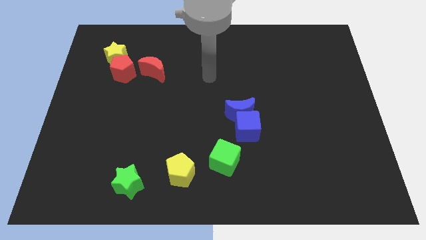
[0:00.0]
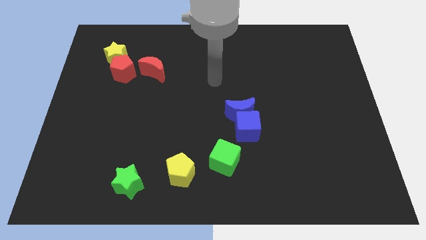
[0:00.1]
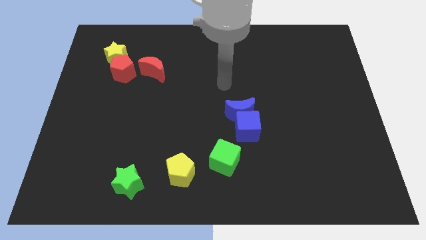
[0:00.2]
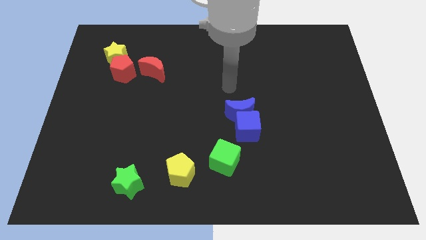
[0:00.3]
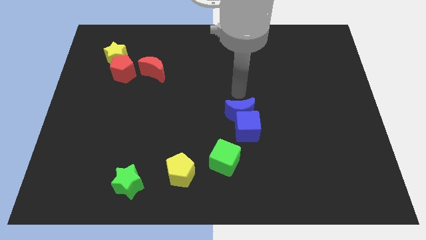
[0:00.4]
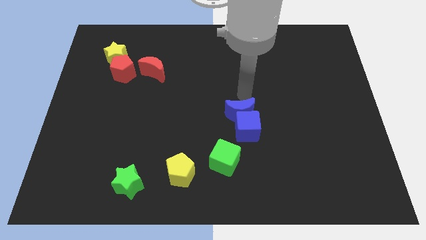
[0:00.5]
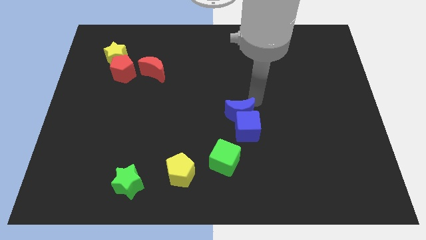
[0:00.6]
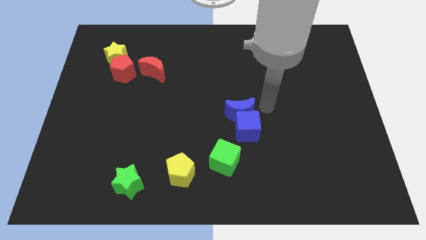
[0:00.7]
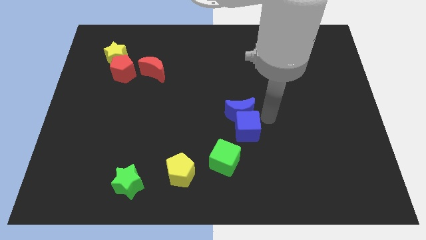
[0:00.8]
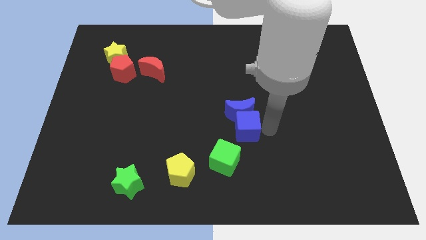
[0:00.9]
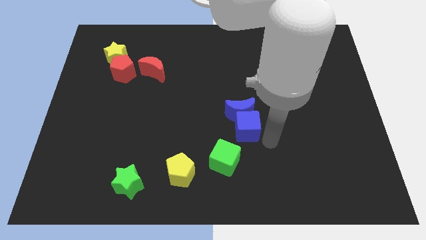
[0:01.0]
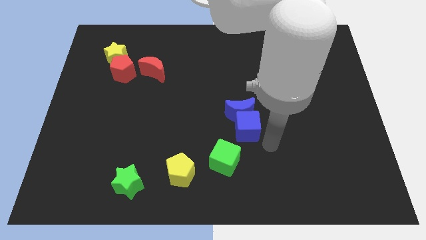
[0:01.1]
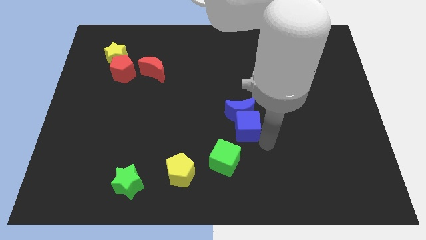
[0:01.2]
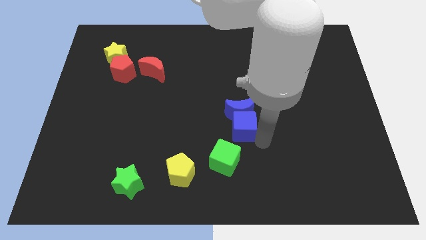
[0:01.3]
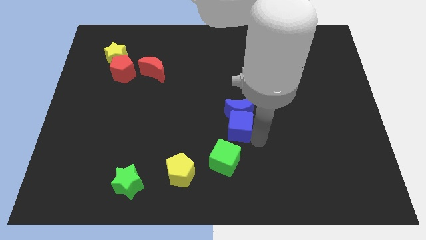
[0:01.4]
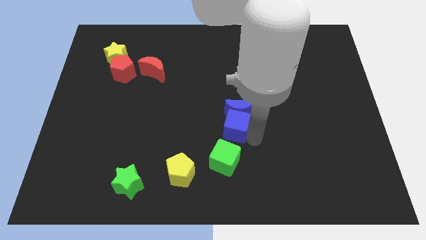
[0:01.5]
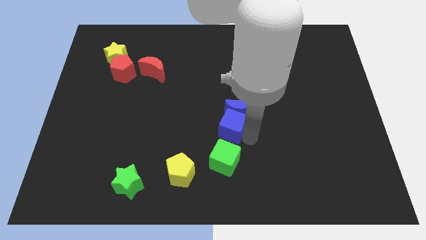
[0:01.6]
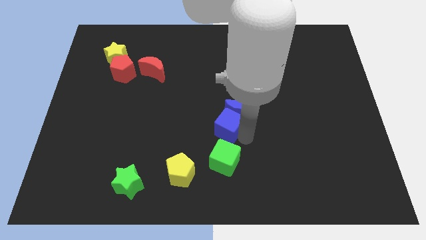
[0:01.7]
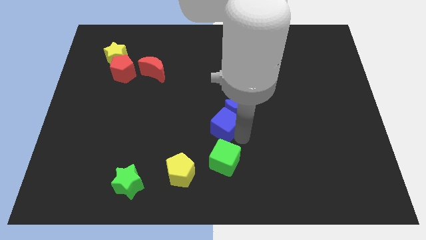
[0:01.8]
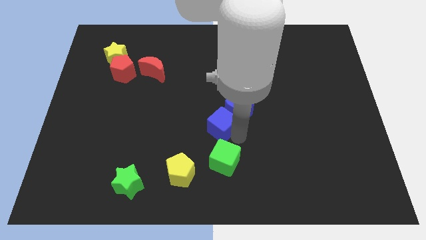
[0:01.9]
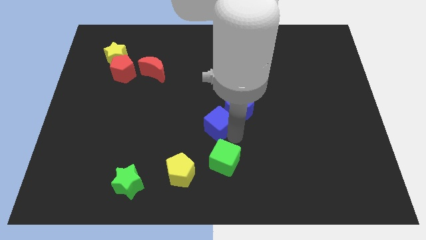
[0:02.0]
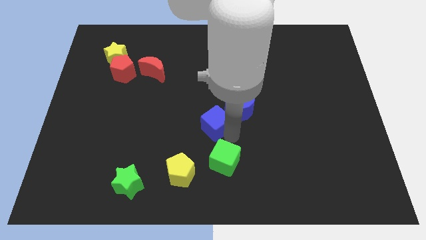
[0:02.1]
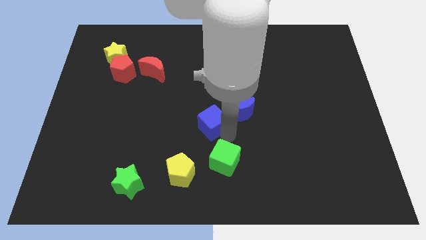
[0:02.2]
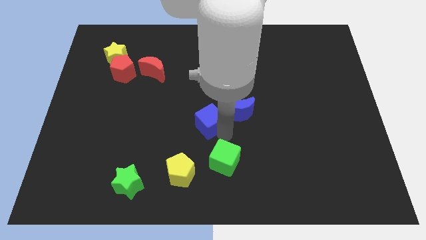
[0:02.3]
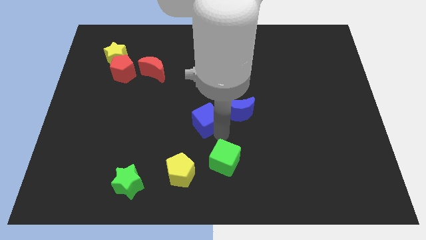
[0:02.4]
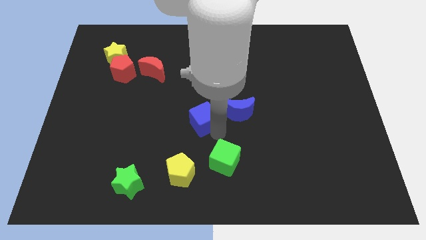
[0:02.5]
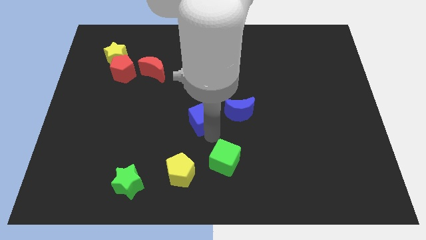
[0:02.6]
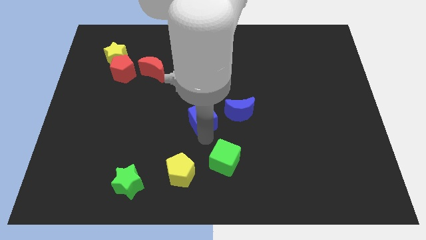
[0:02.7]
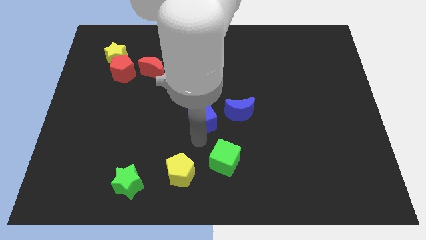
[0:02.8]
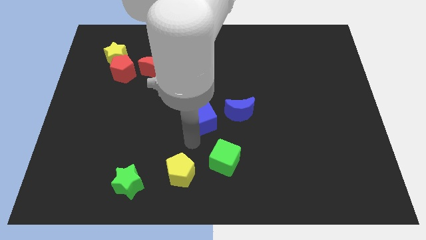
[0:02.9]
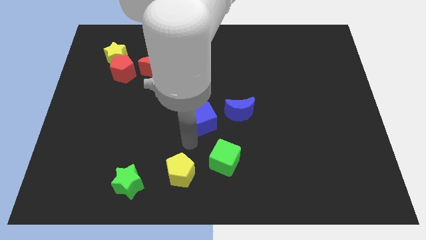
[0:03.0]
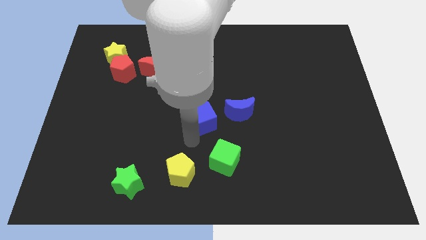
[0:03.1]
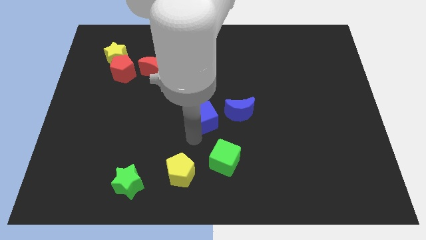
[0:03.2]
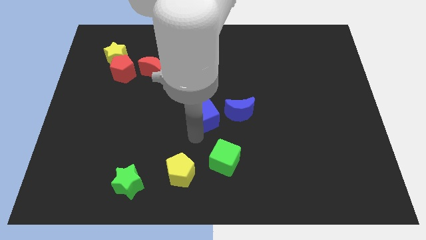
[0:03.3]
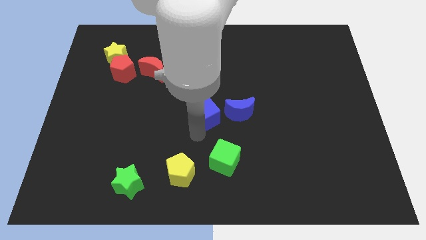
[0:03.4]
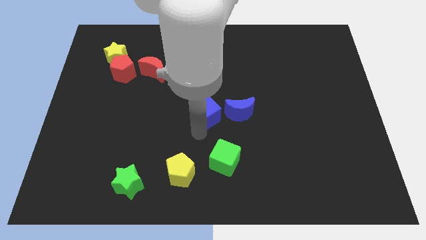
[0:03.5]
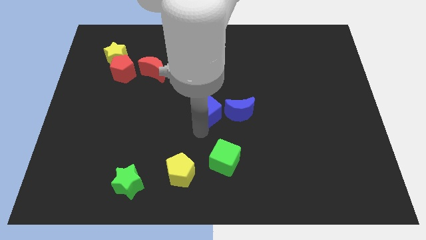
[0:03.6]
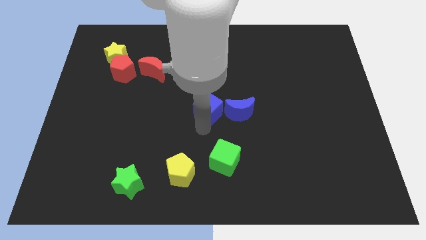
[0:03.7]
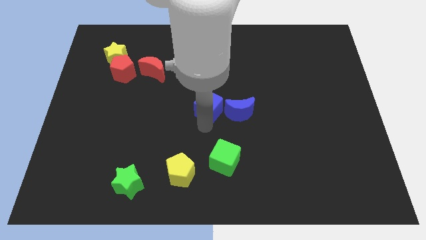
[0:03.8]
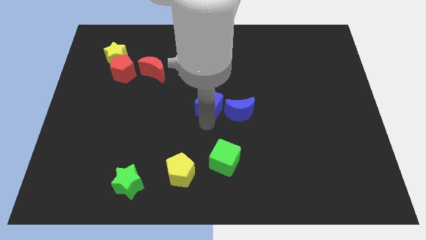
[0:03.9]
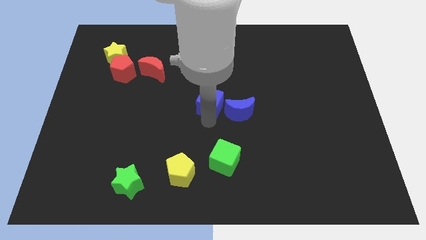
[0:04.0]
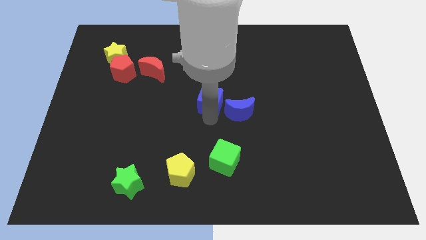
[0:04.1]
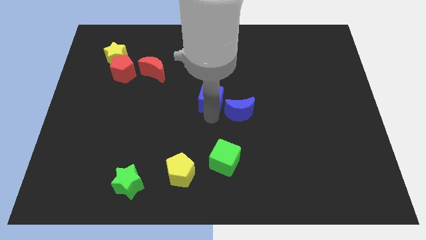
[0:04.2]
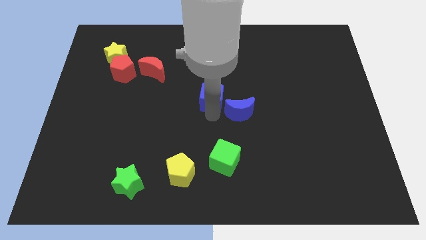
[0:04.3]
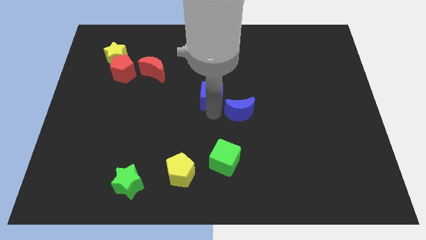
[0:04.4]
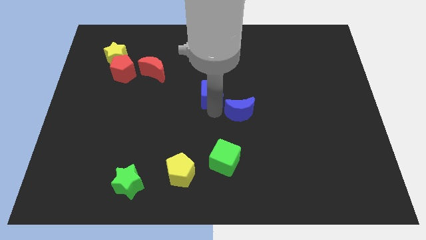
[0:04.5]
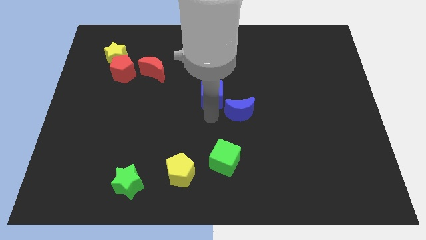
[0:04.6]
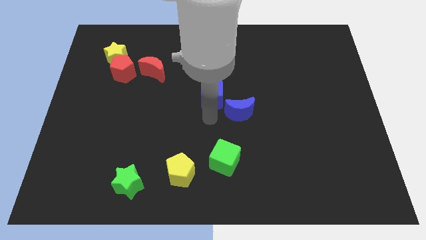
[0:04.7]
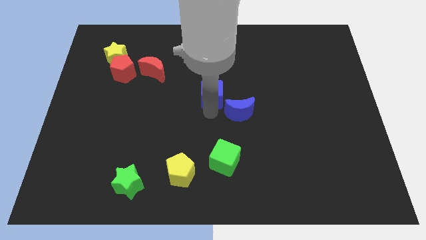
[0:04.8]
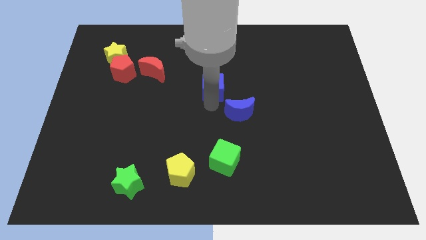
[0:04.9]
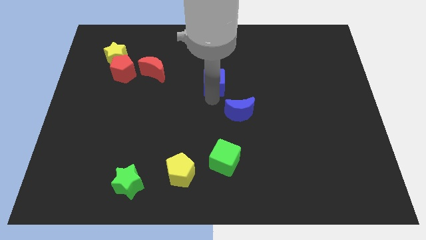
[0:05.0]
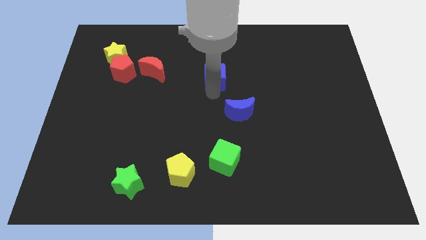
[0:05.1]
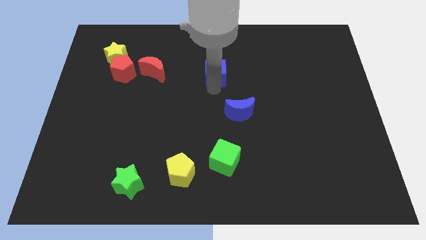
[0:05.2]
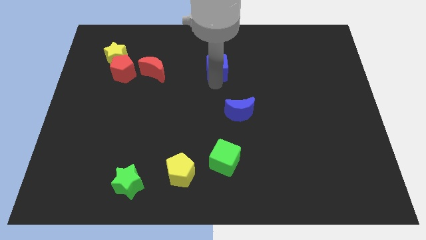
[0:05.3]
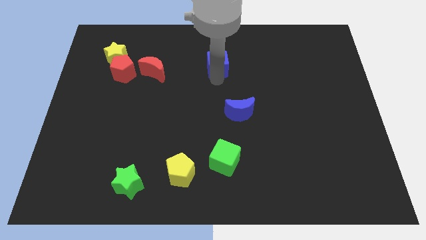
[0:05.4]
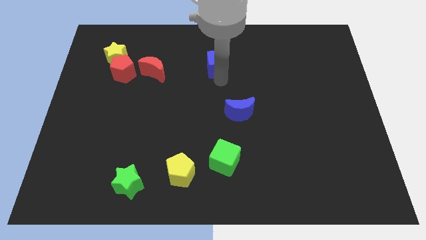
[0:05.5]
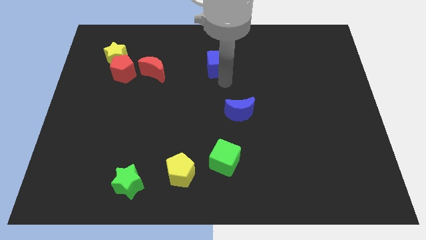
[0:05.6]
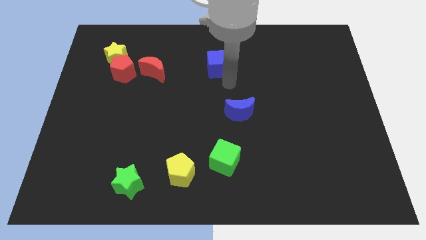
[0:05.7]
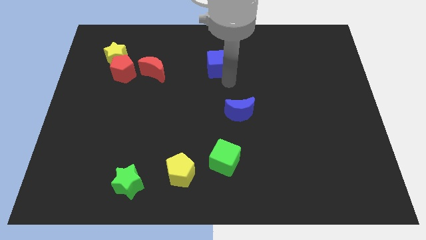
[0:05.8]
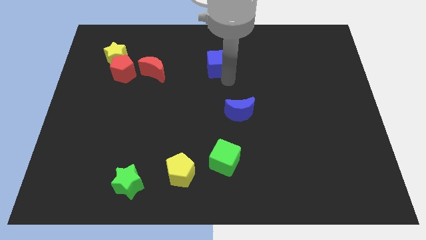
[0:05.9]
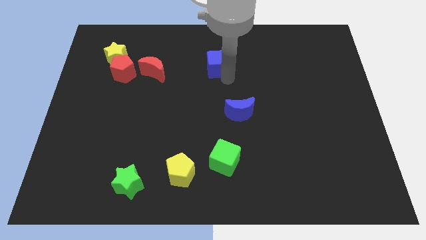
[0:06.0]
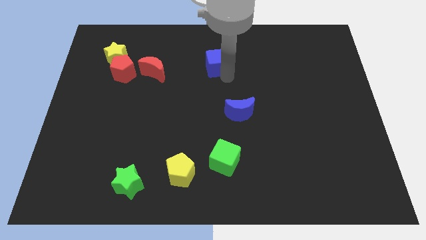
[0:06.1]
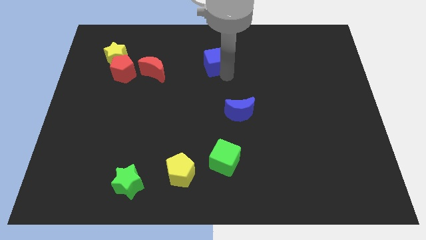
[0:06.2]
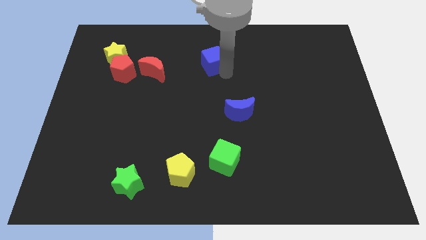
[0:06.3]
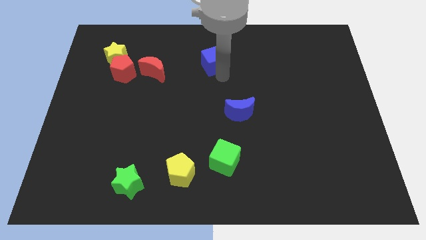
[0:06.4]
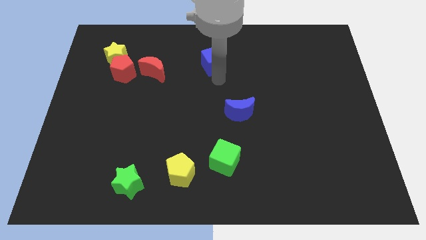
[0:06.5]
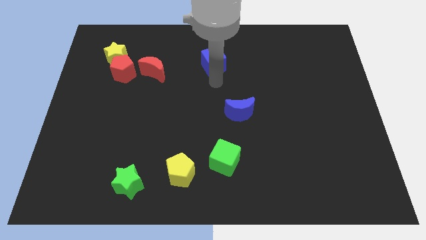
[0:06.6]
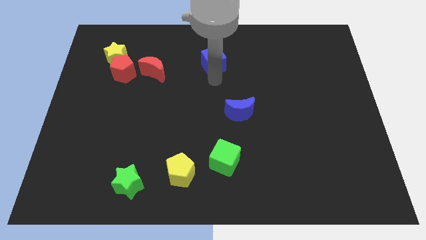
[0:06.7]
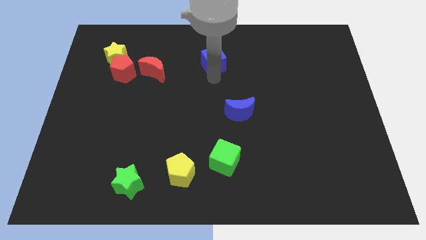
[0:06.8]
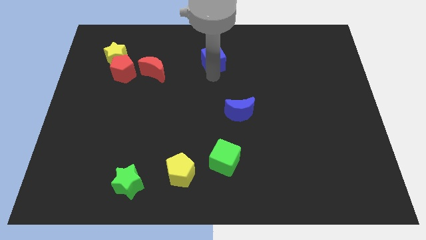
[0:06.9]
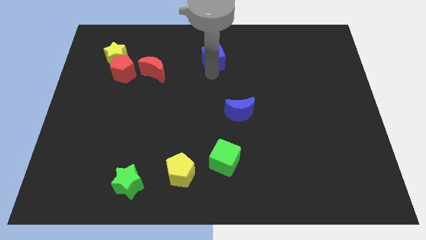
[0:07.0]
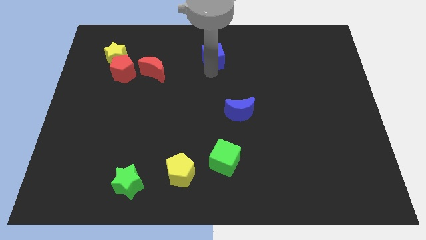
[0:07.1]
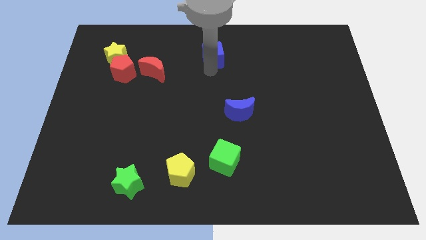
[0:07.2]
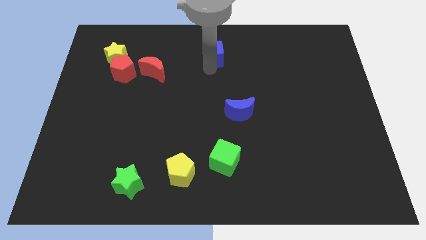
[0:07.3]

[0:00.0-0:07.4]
move the blue cube to the top

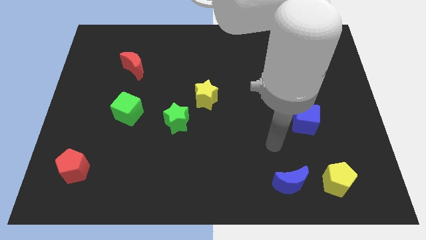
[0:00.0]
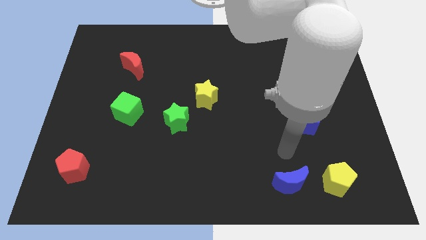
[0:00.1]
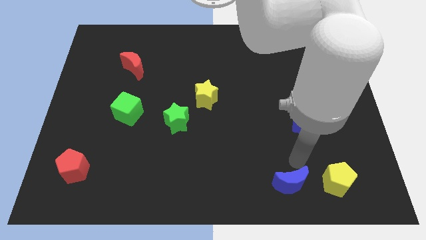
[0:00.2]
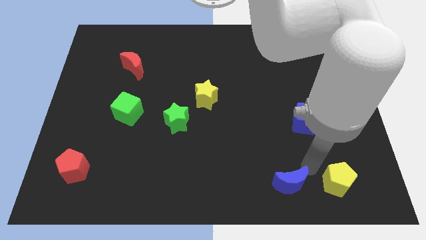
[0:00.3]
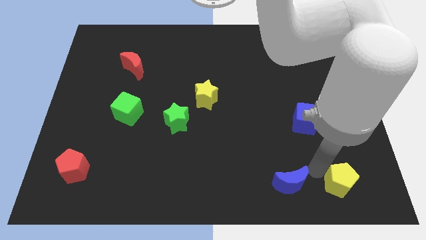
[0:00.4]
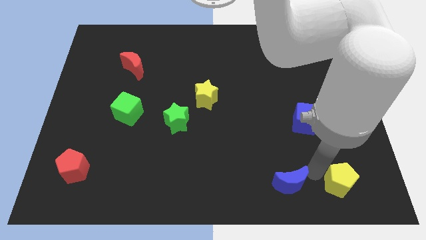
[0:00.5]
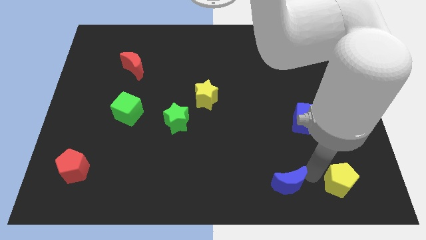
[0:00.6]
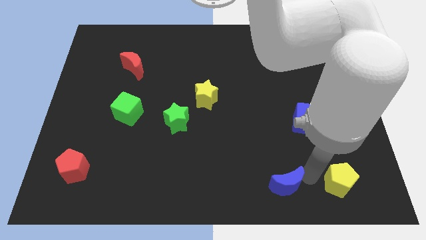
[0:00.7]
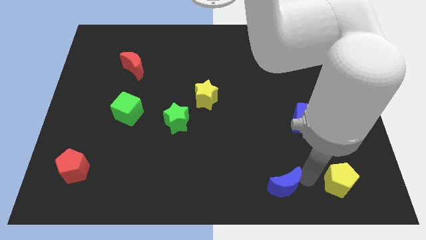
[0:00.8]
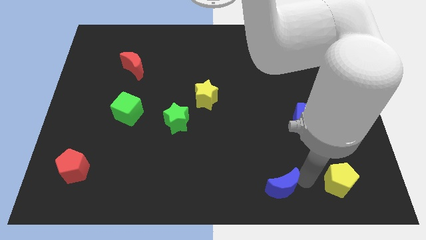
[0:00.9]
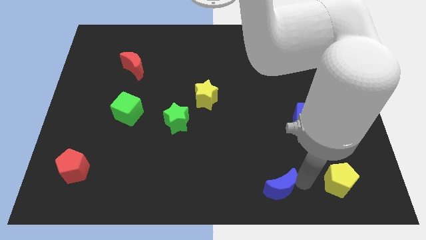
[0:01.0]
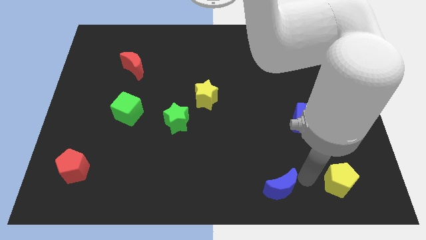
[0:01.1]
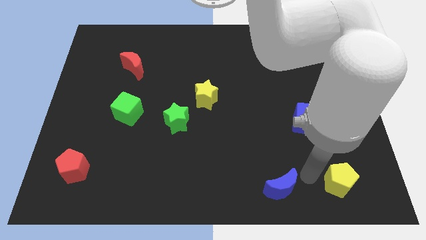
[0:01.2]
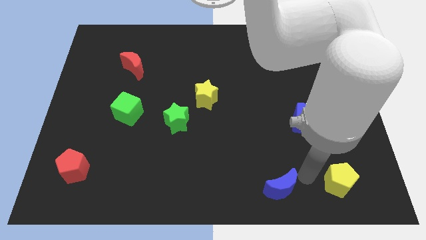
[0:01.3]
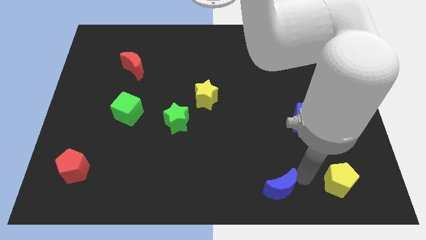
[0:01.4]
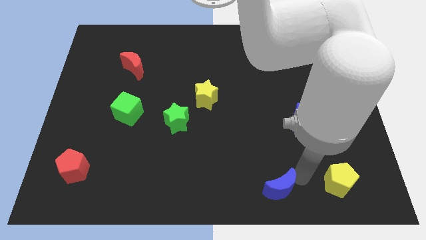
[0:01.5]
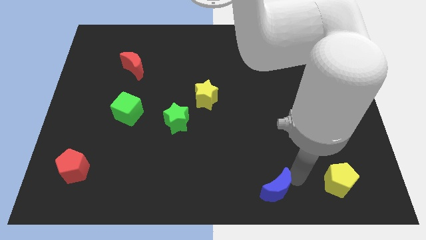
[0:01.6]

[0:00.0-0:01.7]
move the blue moon to the bottom
